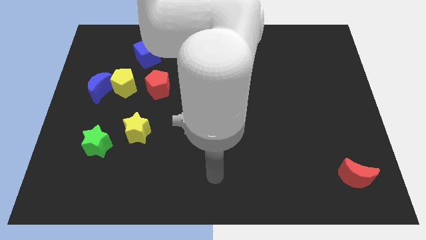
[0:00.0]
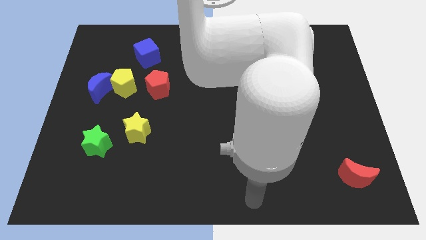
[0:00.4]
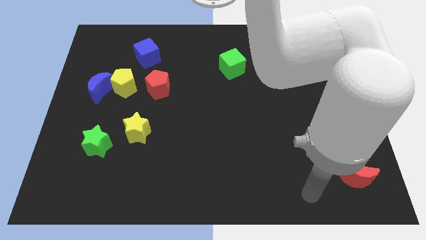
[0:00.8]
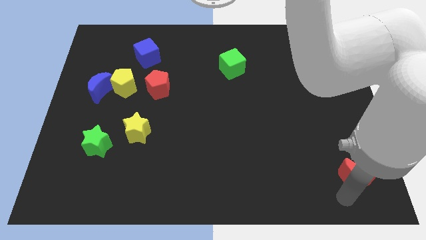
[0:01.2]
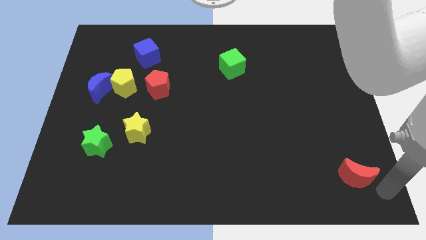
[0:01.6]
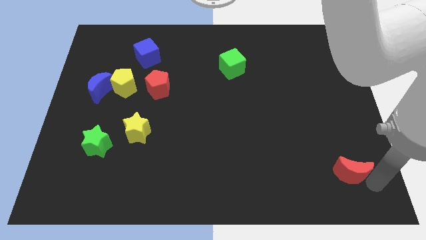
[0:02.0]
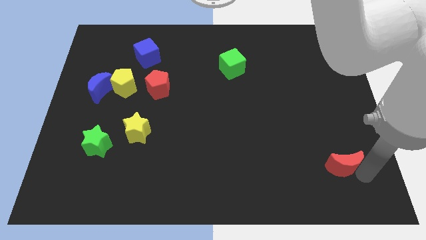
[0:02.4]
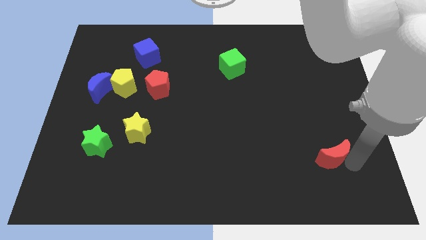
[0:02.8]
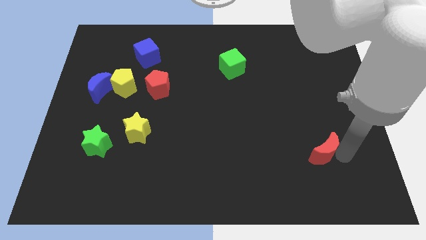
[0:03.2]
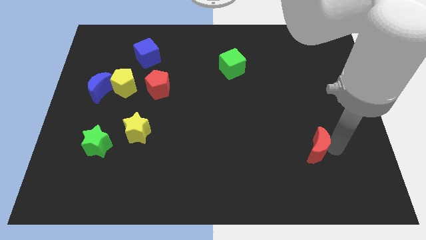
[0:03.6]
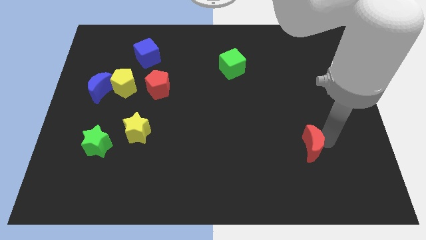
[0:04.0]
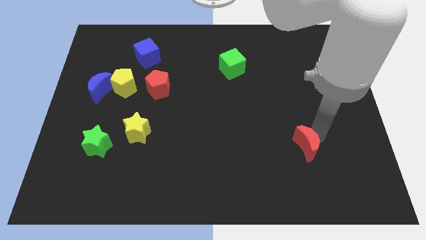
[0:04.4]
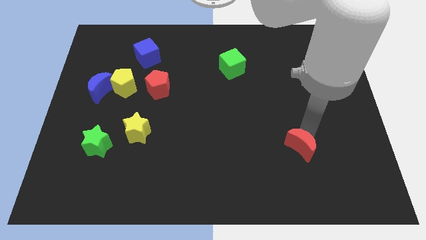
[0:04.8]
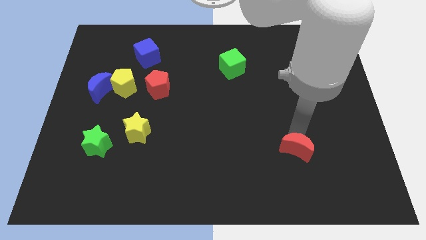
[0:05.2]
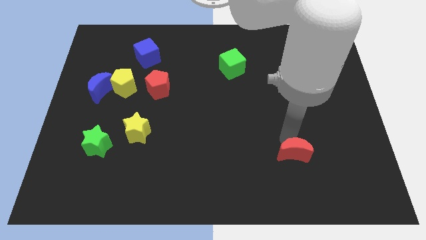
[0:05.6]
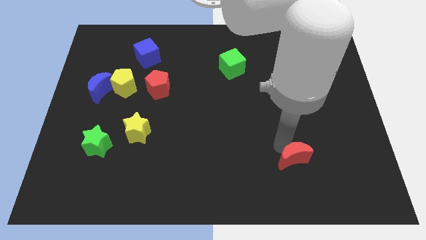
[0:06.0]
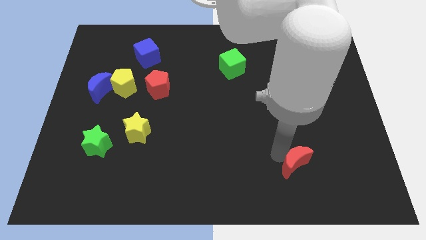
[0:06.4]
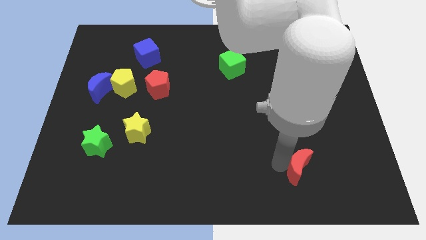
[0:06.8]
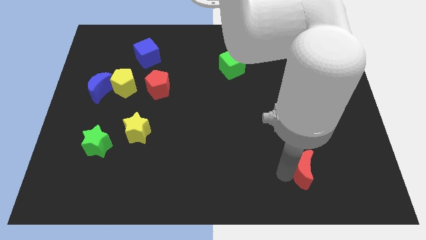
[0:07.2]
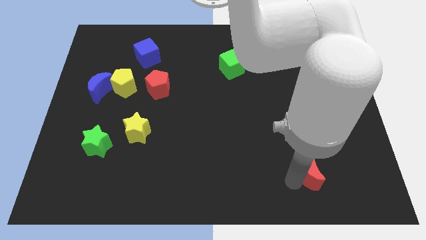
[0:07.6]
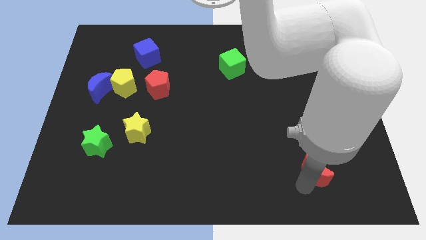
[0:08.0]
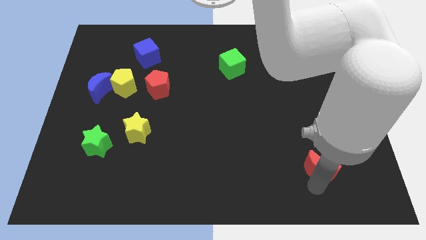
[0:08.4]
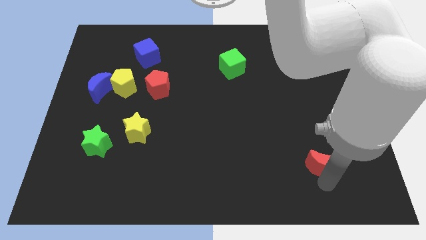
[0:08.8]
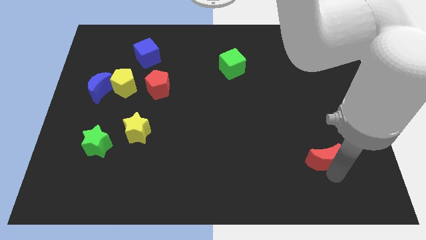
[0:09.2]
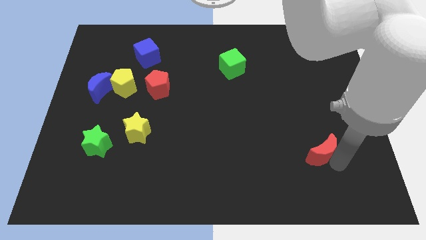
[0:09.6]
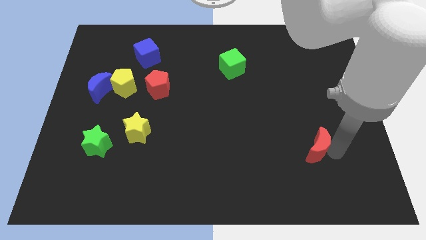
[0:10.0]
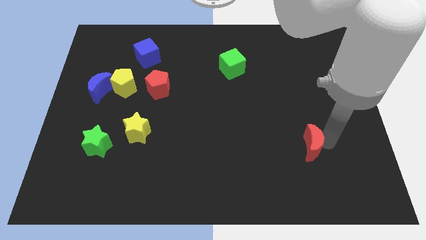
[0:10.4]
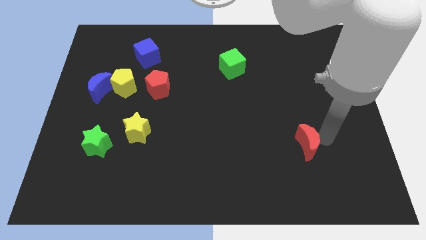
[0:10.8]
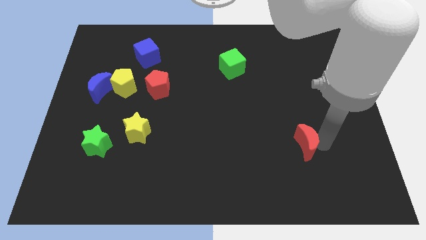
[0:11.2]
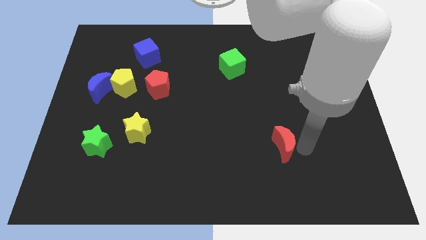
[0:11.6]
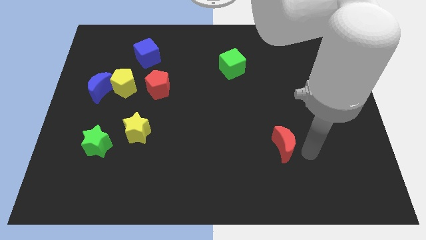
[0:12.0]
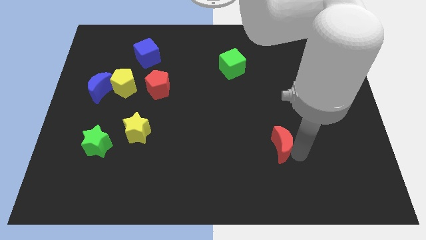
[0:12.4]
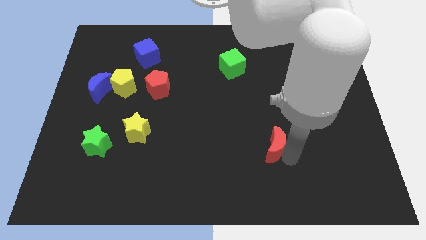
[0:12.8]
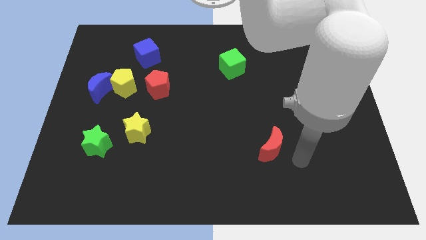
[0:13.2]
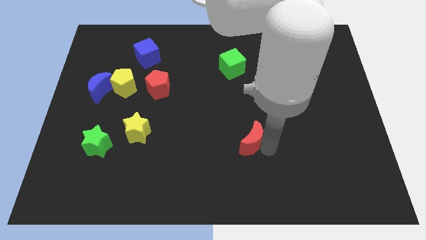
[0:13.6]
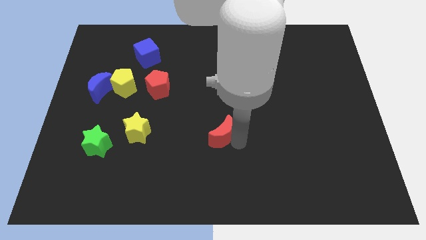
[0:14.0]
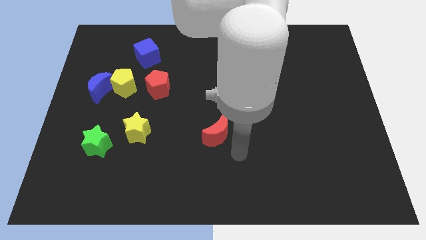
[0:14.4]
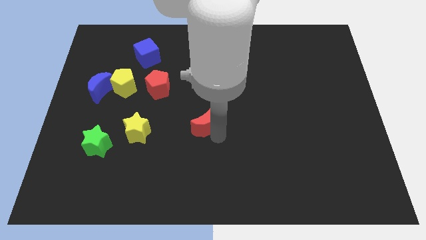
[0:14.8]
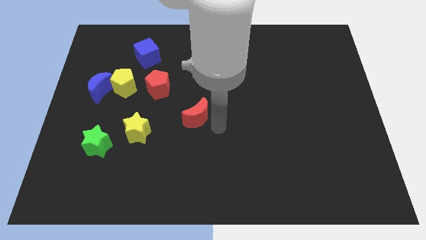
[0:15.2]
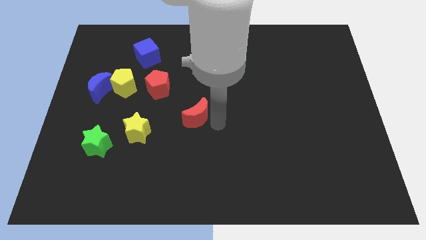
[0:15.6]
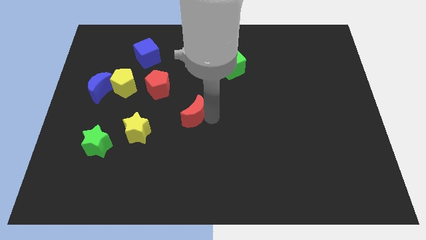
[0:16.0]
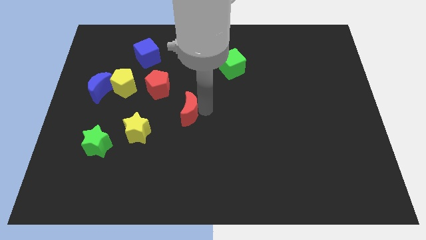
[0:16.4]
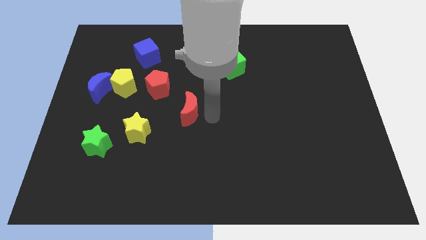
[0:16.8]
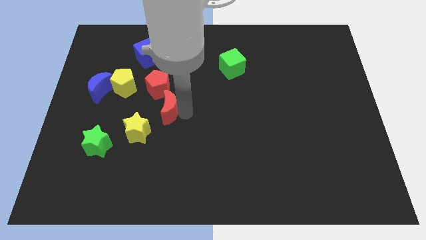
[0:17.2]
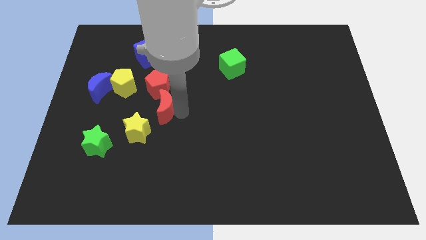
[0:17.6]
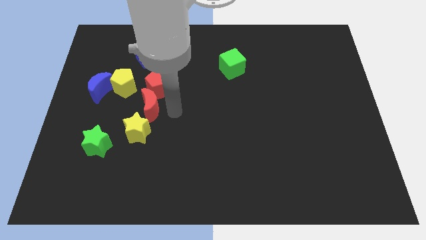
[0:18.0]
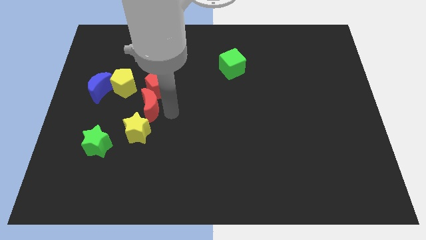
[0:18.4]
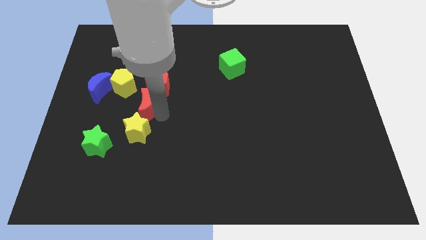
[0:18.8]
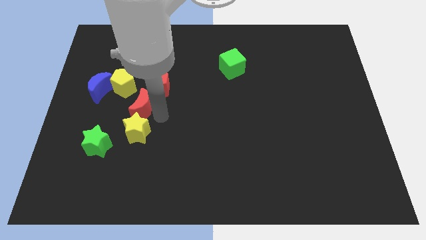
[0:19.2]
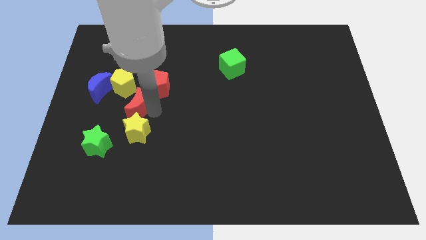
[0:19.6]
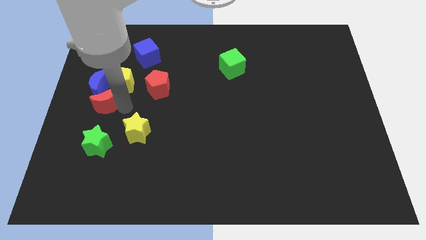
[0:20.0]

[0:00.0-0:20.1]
move the red moon to the center left

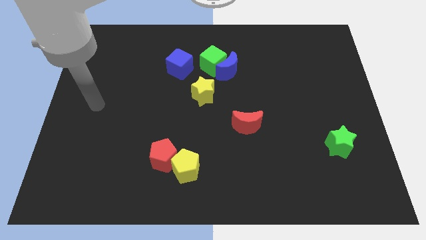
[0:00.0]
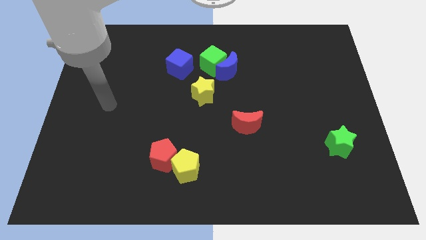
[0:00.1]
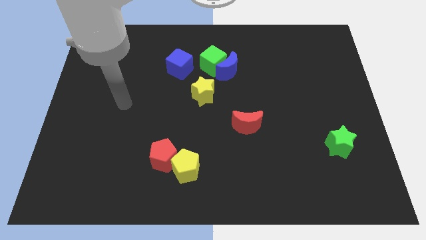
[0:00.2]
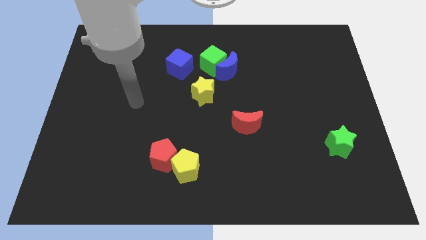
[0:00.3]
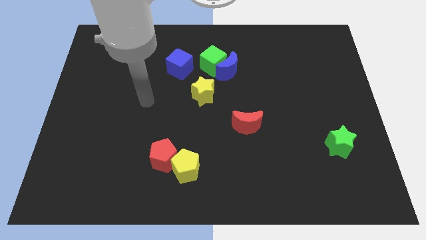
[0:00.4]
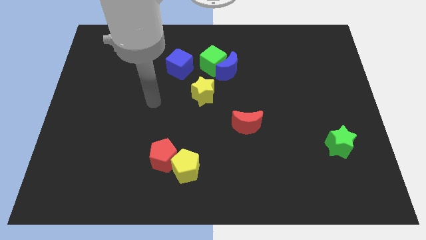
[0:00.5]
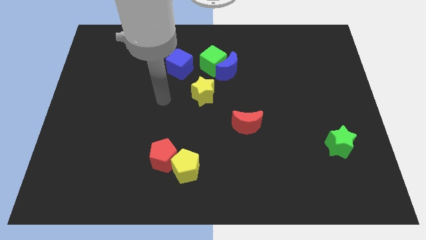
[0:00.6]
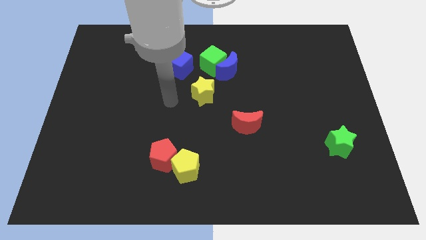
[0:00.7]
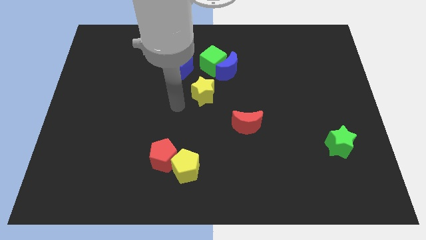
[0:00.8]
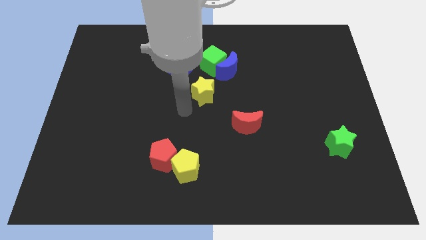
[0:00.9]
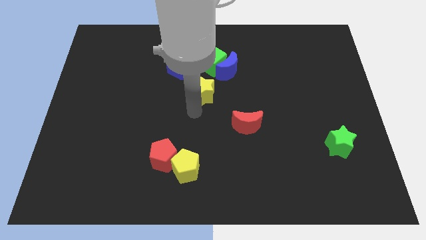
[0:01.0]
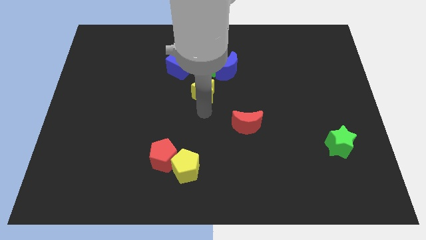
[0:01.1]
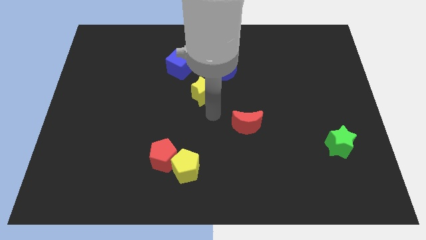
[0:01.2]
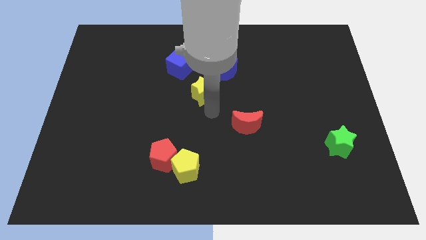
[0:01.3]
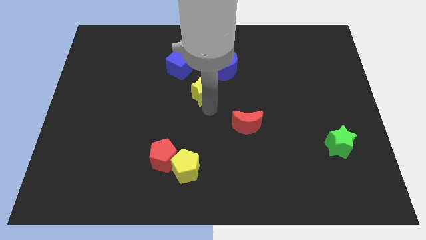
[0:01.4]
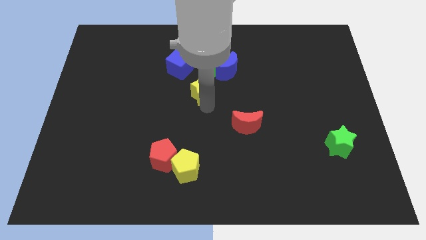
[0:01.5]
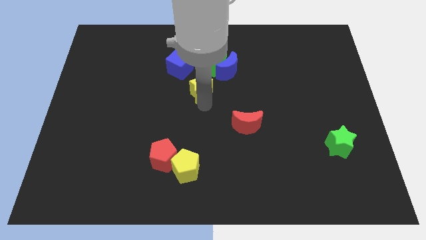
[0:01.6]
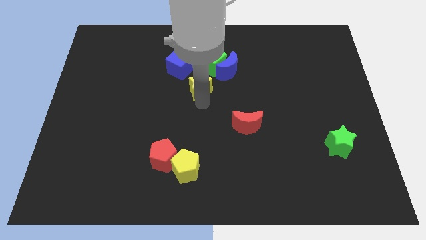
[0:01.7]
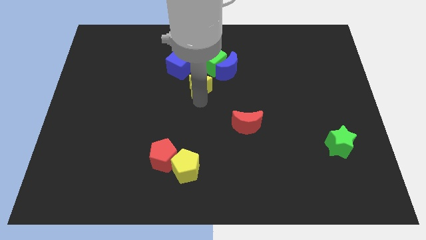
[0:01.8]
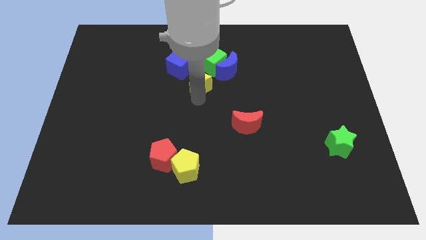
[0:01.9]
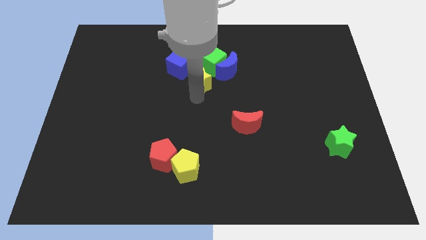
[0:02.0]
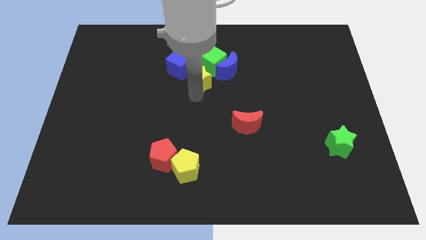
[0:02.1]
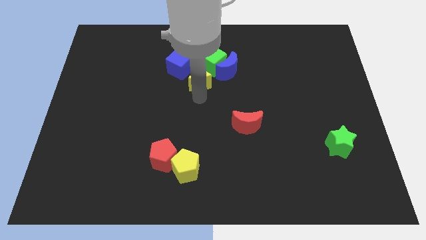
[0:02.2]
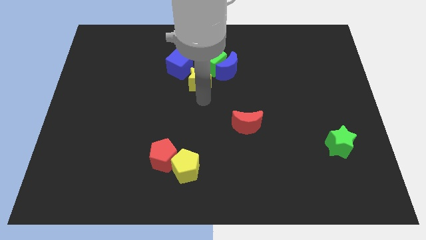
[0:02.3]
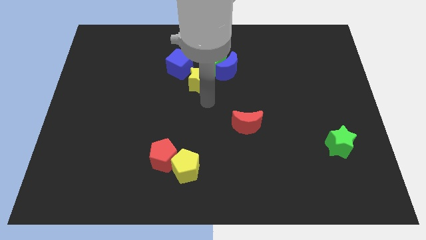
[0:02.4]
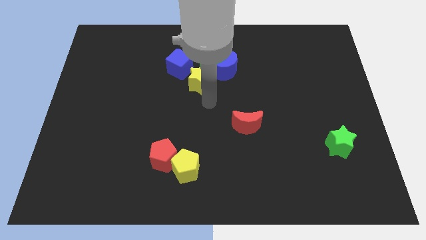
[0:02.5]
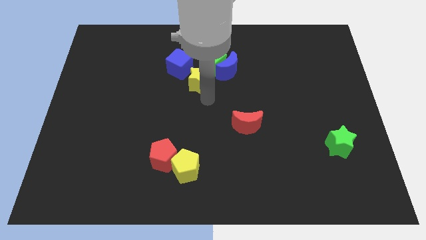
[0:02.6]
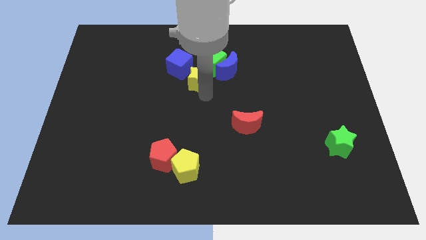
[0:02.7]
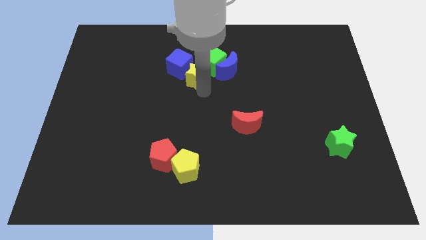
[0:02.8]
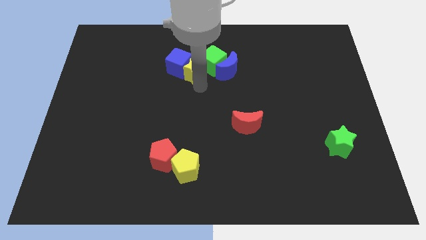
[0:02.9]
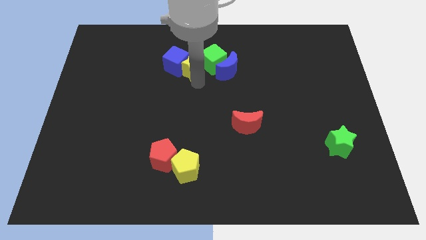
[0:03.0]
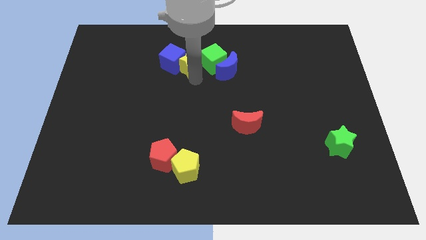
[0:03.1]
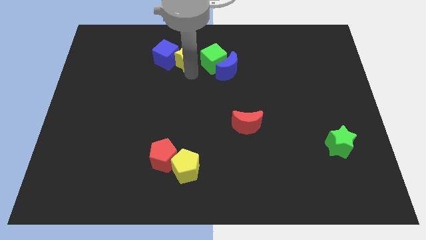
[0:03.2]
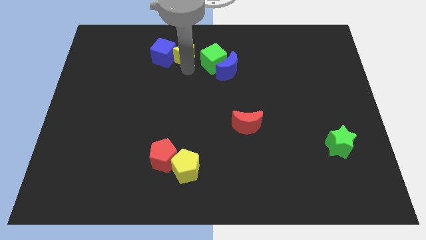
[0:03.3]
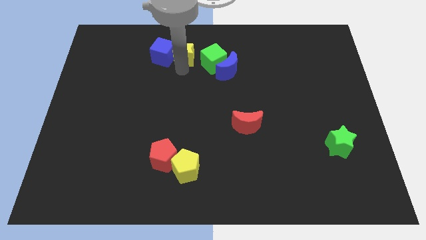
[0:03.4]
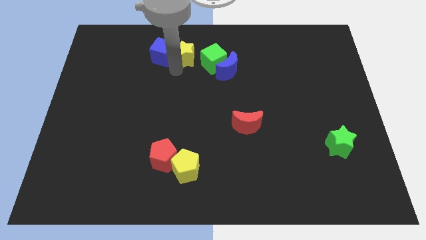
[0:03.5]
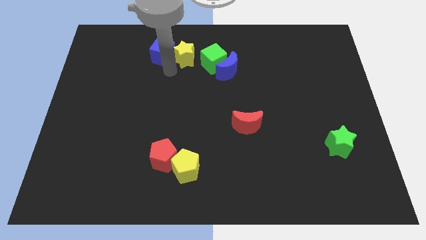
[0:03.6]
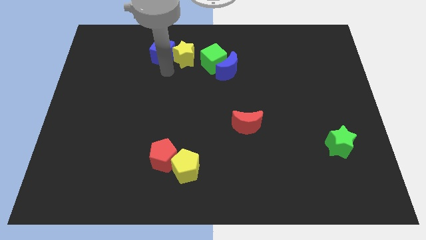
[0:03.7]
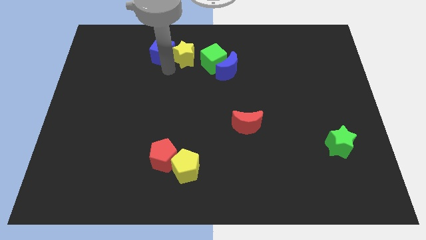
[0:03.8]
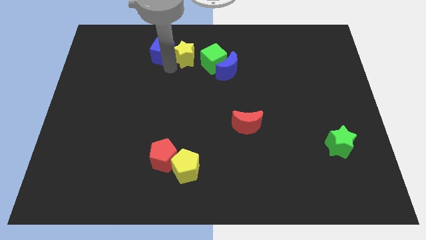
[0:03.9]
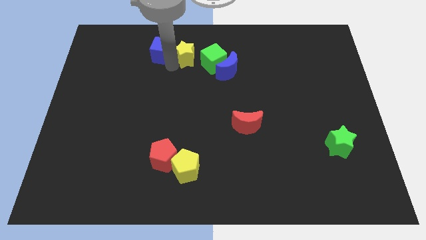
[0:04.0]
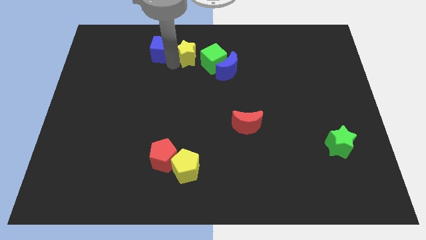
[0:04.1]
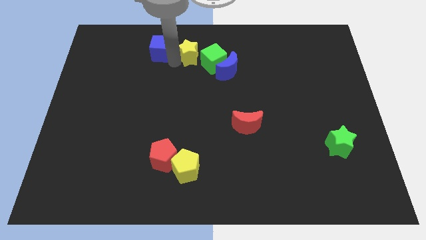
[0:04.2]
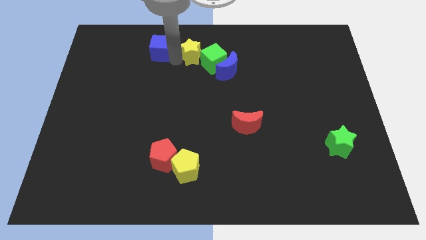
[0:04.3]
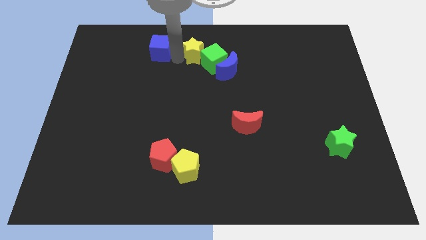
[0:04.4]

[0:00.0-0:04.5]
move the yellow star to the towards your base
